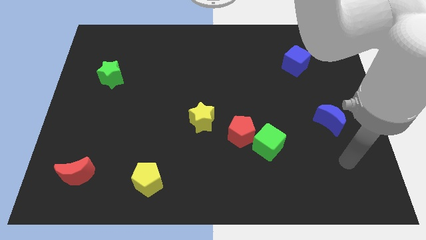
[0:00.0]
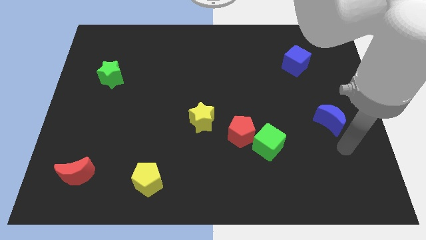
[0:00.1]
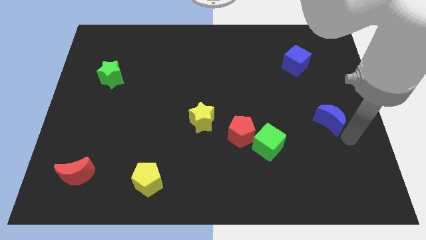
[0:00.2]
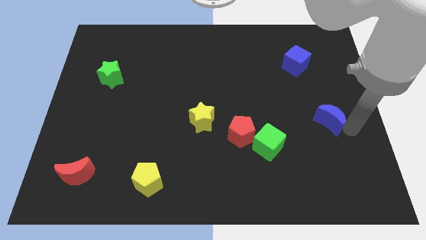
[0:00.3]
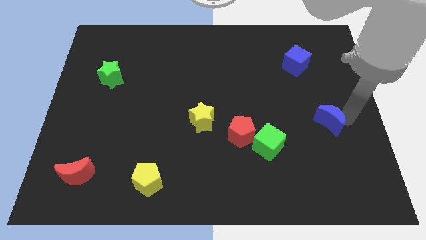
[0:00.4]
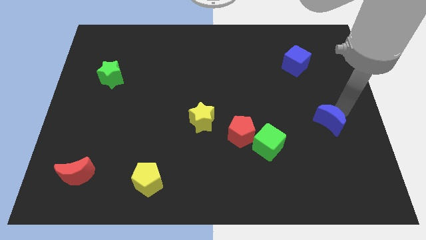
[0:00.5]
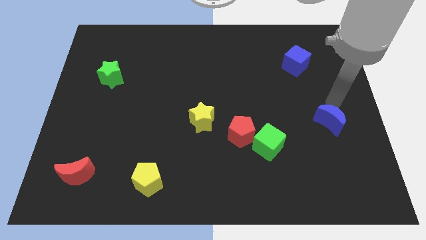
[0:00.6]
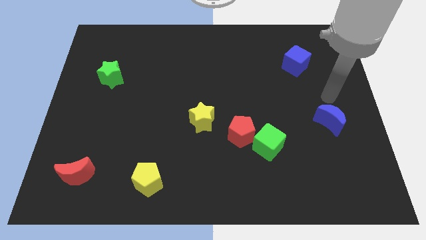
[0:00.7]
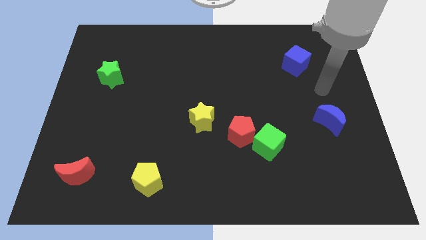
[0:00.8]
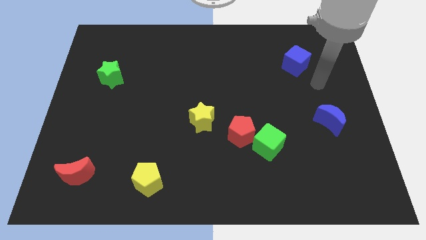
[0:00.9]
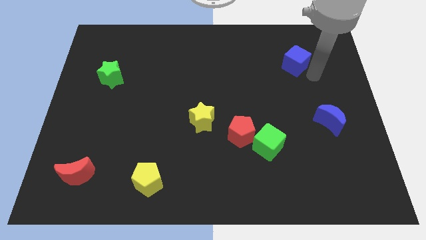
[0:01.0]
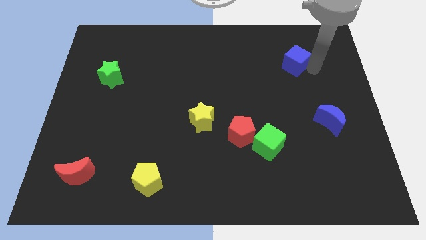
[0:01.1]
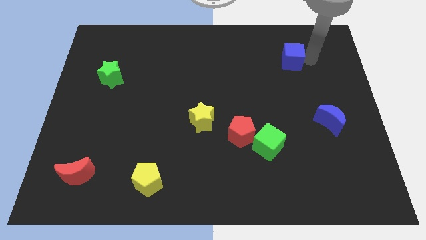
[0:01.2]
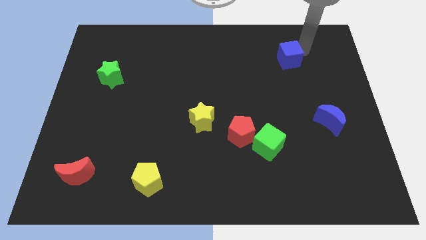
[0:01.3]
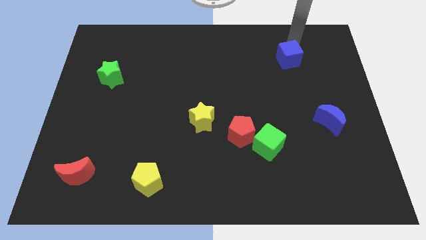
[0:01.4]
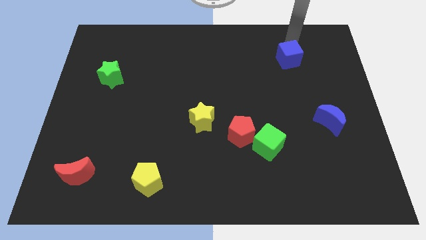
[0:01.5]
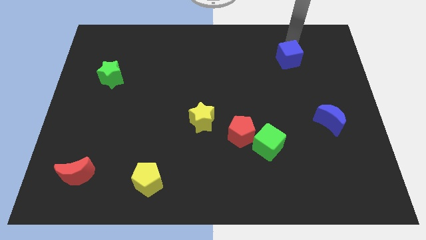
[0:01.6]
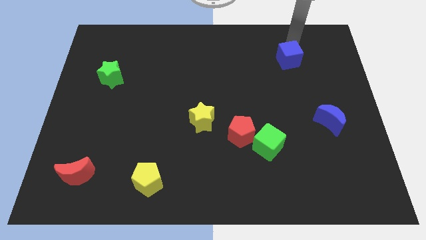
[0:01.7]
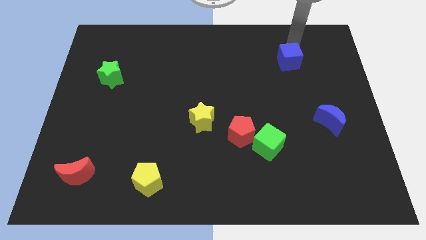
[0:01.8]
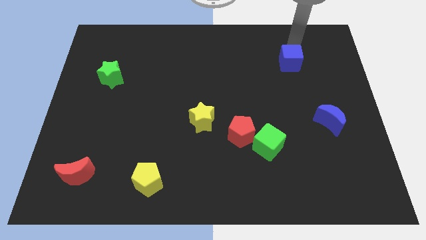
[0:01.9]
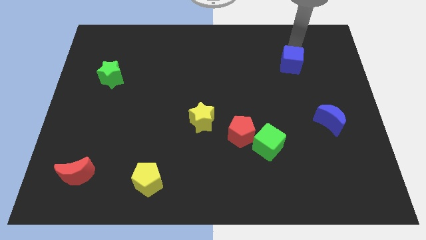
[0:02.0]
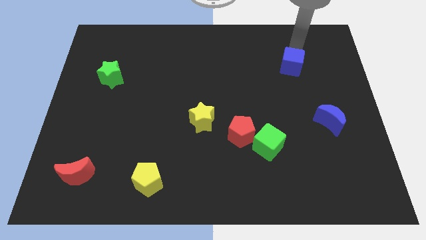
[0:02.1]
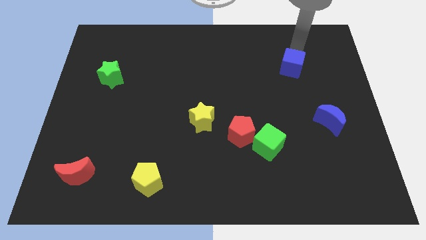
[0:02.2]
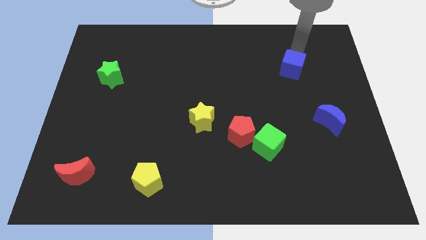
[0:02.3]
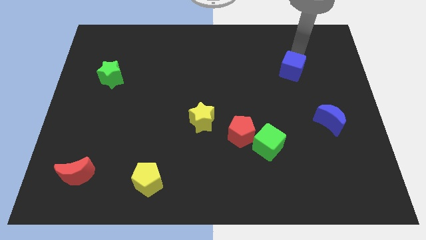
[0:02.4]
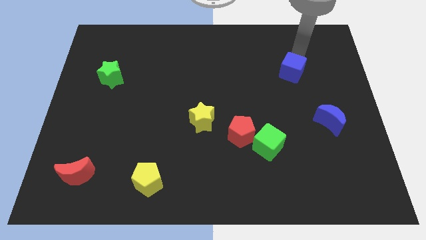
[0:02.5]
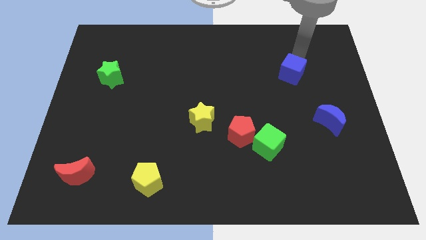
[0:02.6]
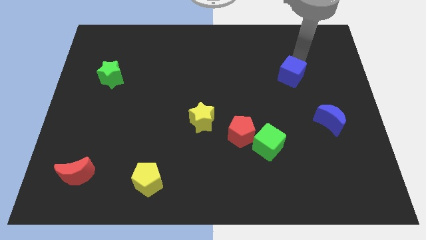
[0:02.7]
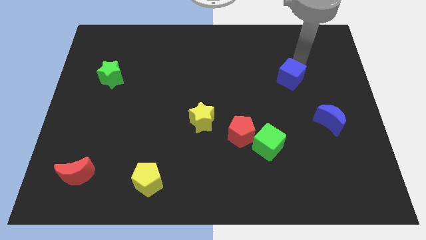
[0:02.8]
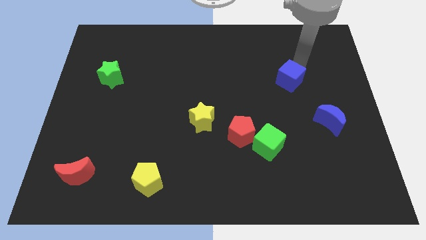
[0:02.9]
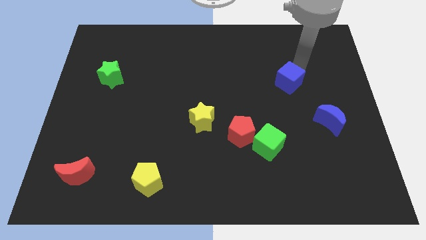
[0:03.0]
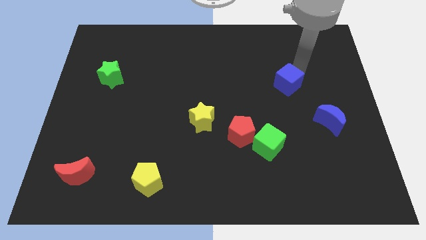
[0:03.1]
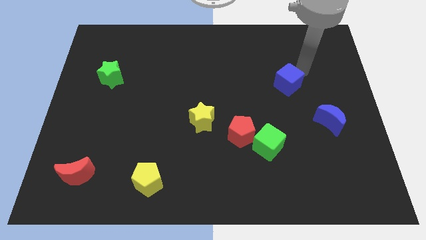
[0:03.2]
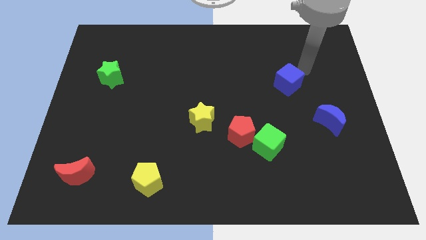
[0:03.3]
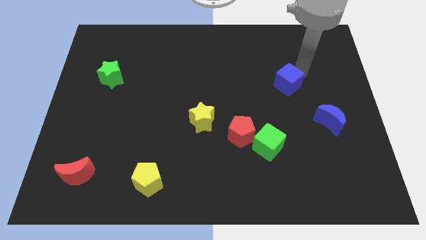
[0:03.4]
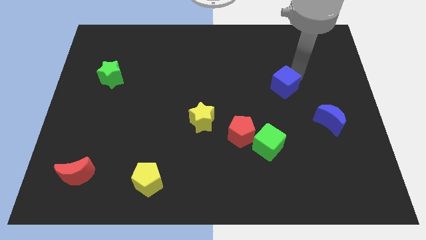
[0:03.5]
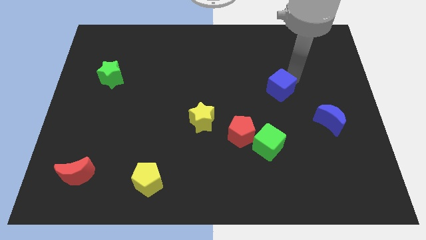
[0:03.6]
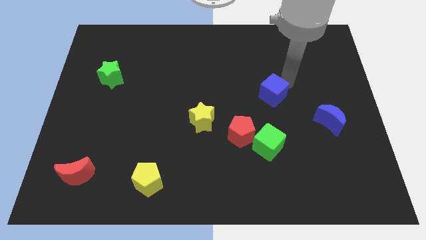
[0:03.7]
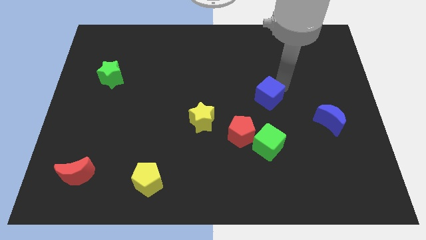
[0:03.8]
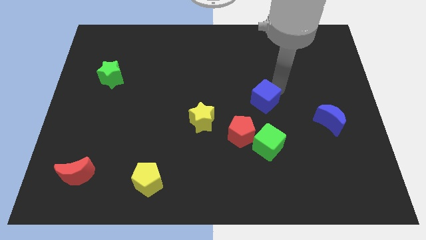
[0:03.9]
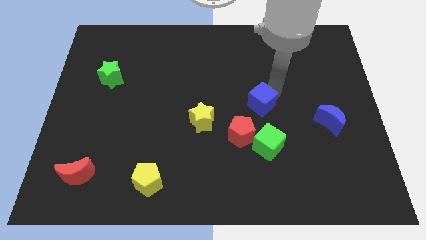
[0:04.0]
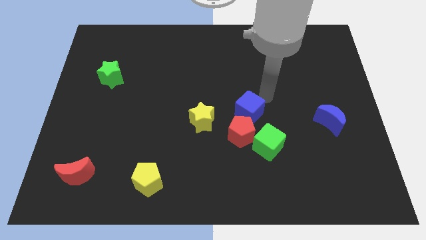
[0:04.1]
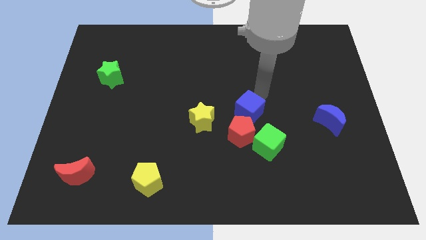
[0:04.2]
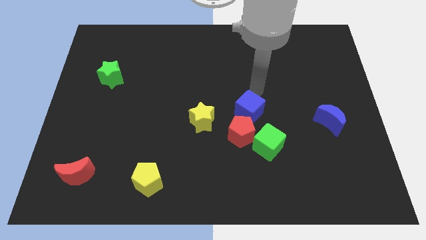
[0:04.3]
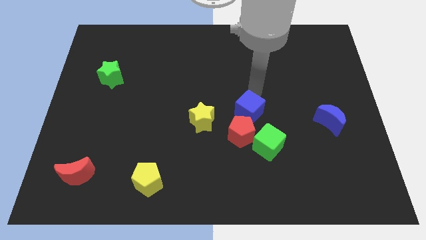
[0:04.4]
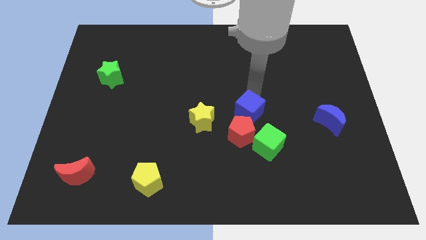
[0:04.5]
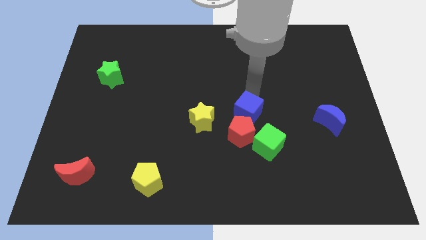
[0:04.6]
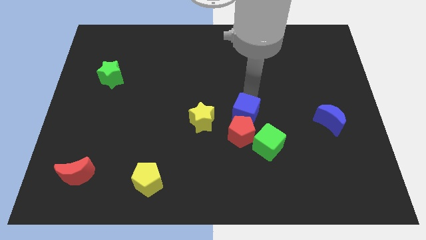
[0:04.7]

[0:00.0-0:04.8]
put the blue cube close to the red pentagon

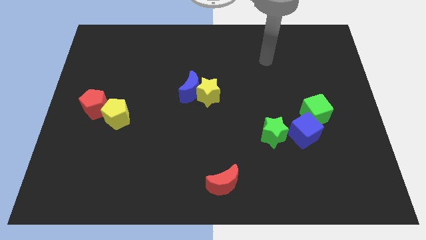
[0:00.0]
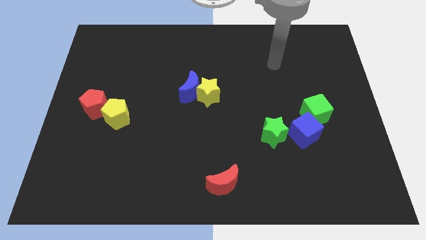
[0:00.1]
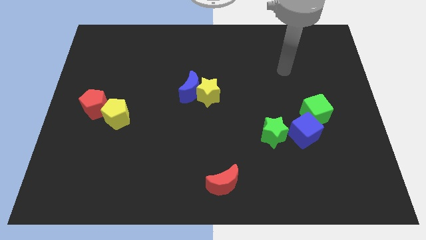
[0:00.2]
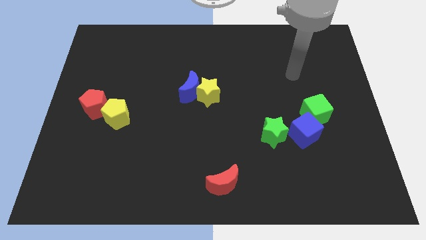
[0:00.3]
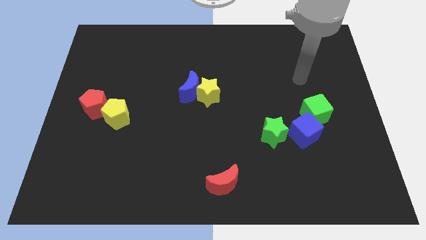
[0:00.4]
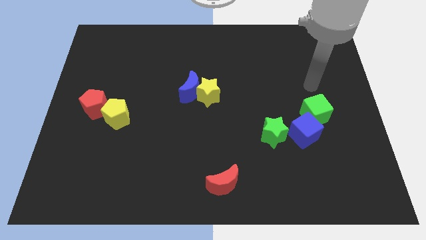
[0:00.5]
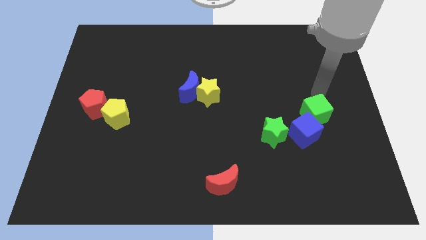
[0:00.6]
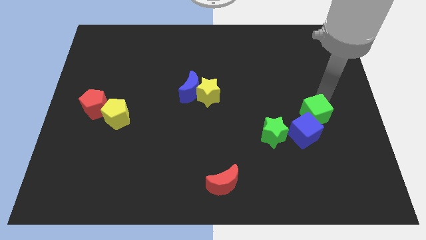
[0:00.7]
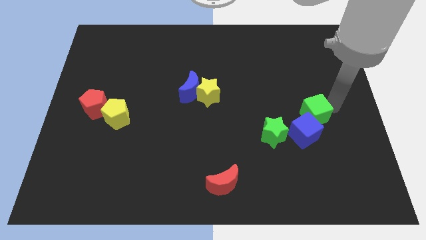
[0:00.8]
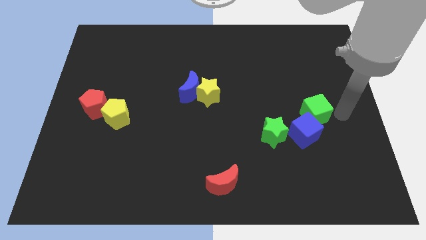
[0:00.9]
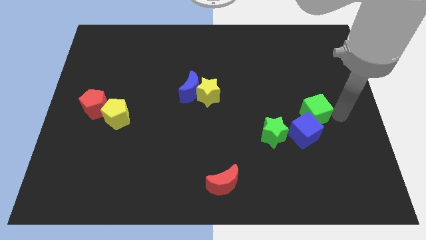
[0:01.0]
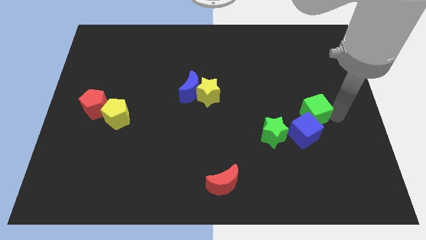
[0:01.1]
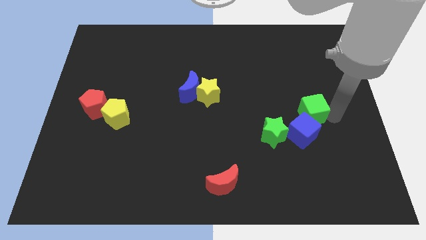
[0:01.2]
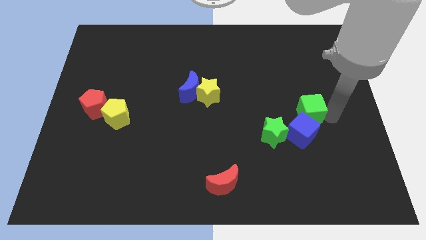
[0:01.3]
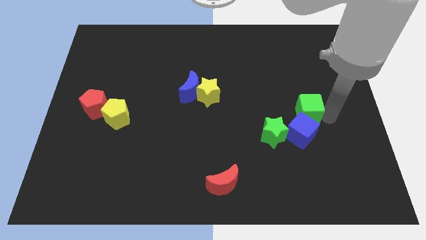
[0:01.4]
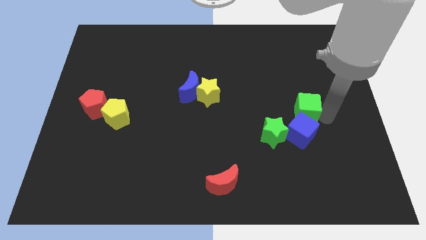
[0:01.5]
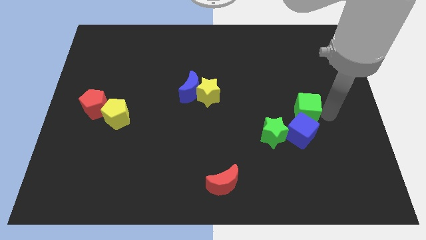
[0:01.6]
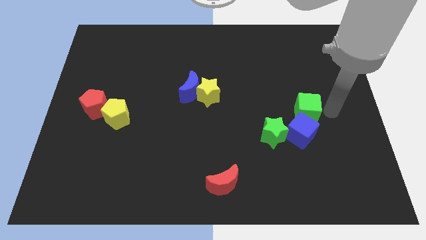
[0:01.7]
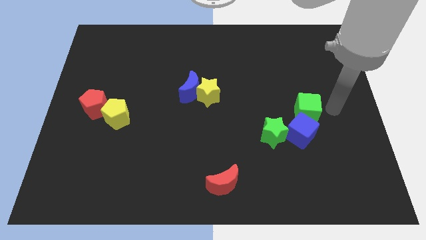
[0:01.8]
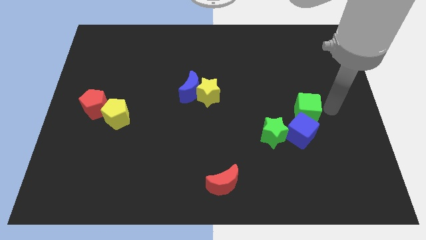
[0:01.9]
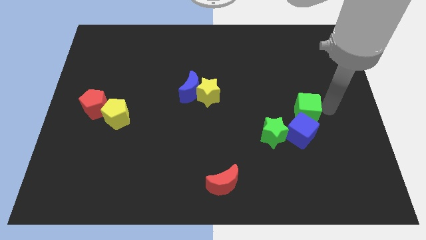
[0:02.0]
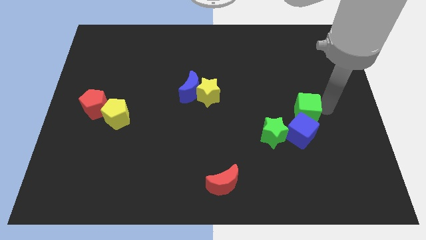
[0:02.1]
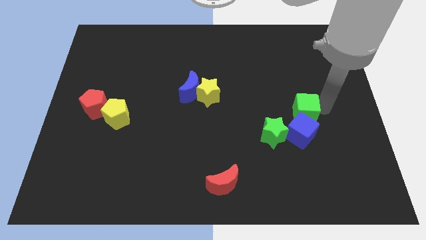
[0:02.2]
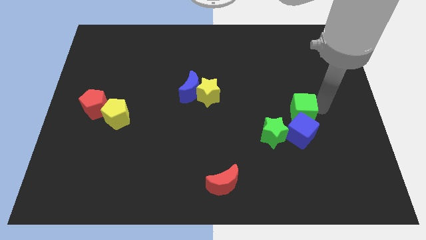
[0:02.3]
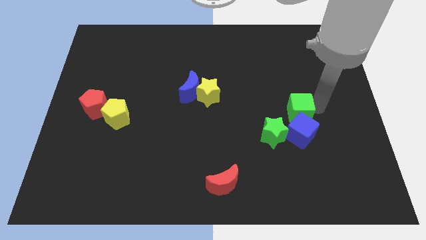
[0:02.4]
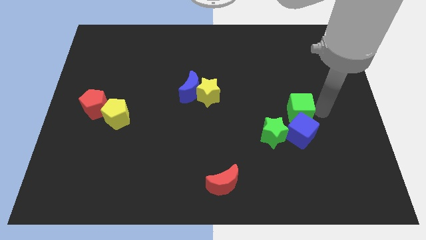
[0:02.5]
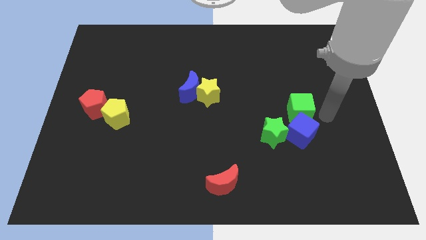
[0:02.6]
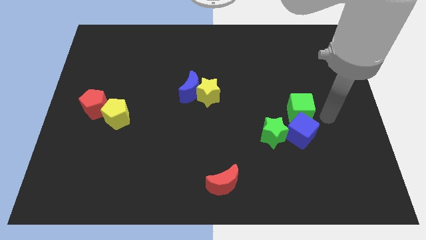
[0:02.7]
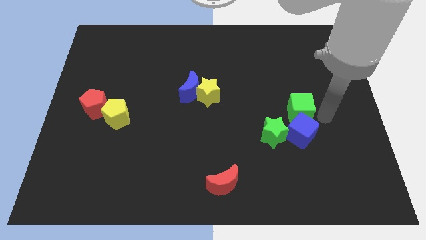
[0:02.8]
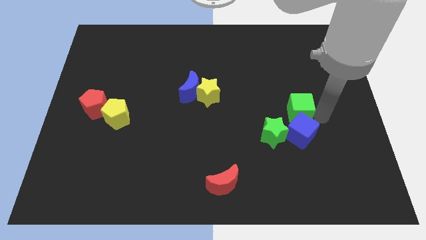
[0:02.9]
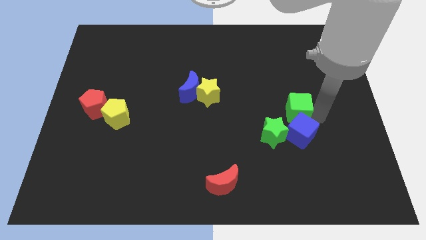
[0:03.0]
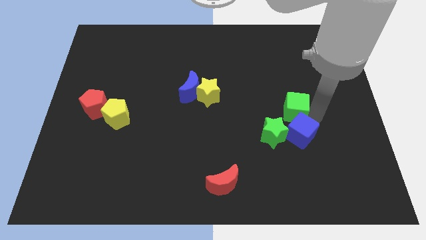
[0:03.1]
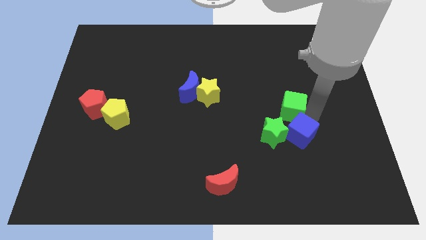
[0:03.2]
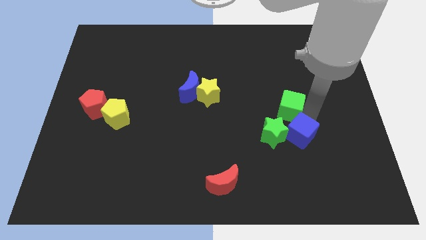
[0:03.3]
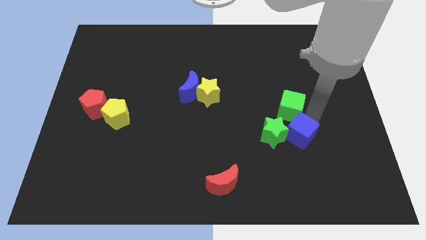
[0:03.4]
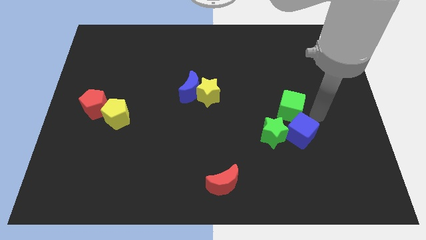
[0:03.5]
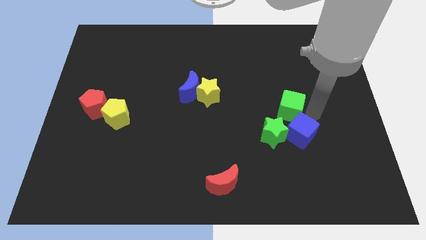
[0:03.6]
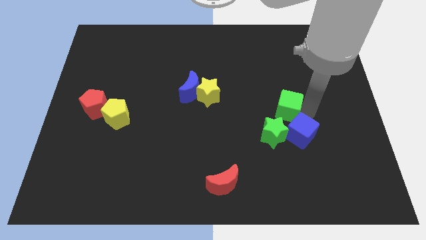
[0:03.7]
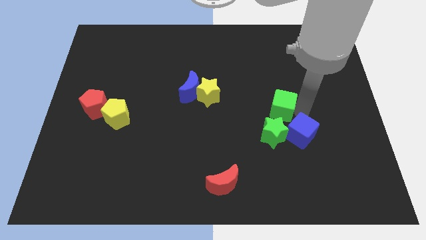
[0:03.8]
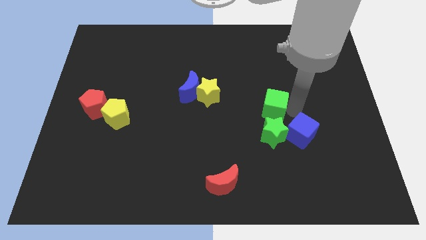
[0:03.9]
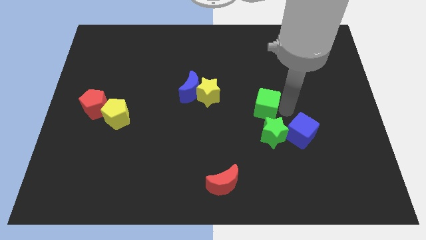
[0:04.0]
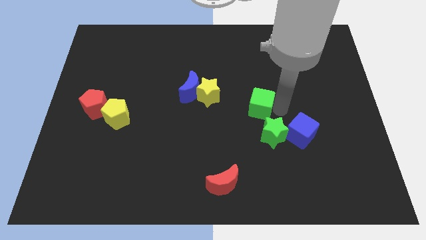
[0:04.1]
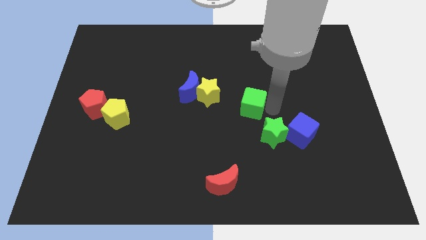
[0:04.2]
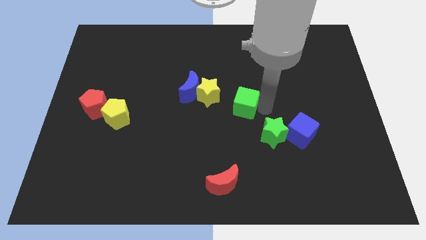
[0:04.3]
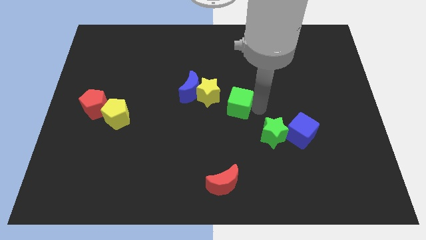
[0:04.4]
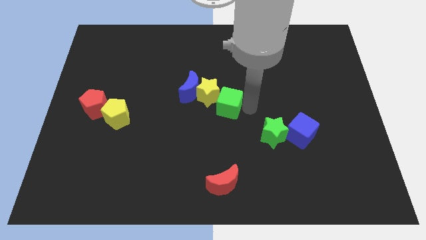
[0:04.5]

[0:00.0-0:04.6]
put the green cube to the yellow star
